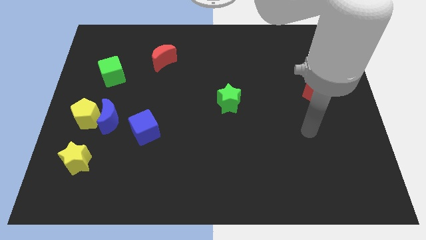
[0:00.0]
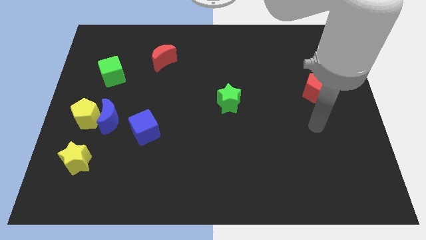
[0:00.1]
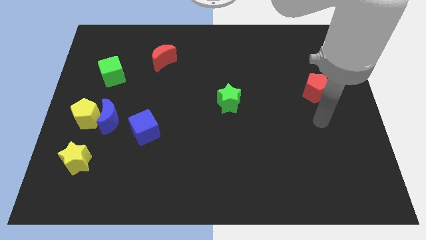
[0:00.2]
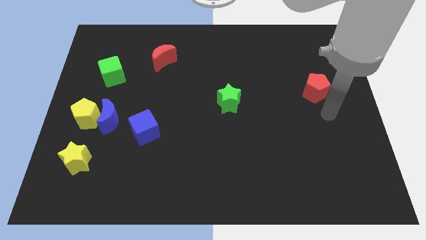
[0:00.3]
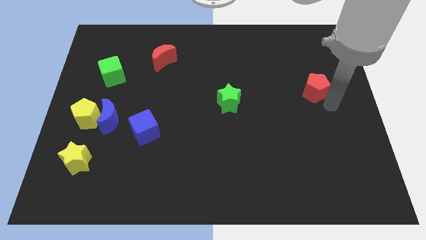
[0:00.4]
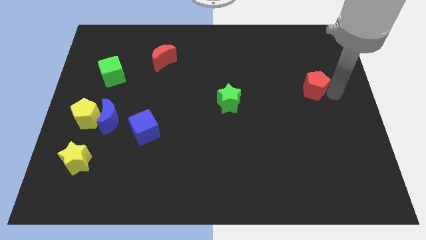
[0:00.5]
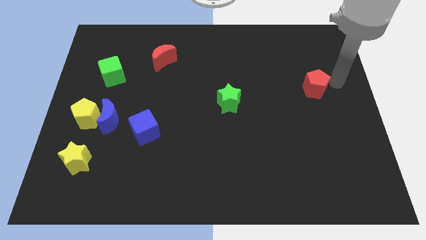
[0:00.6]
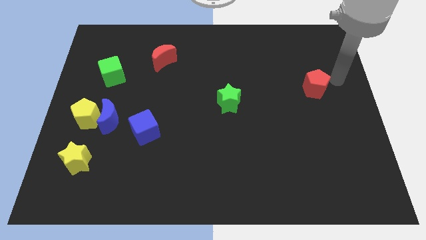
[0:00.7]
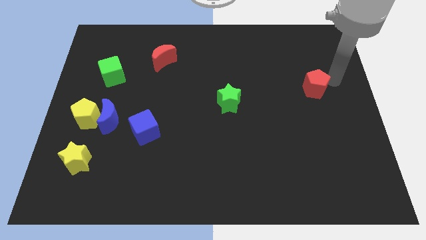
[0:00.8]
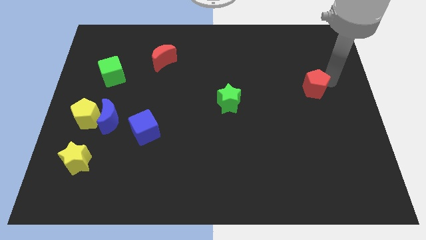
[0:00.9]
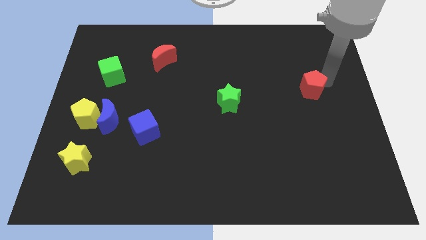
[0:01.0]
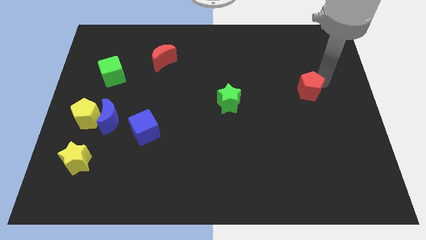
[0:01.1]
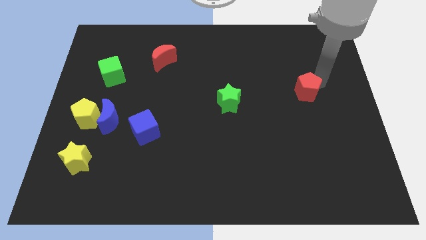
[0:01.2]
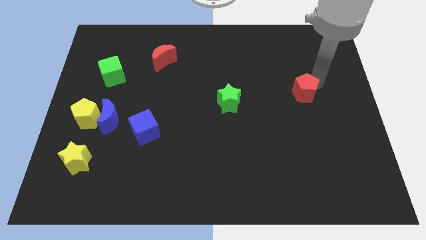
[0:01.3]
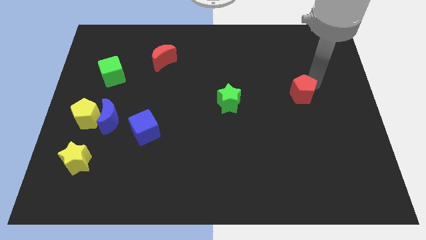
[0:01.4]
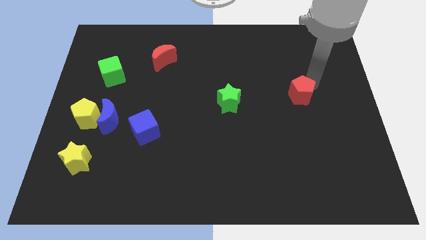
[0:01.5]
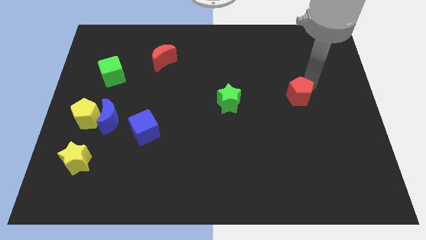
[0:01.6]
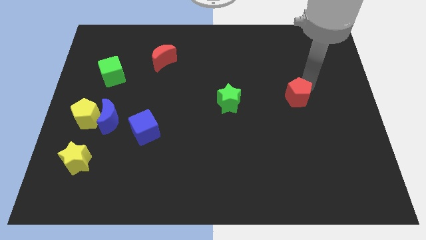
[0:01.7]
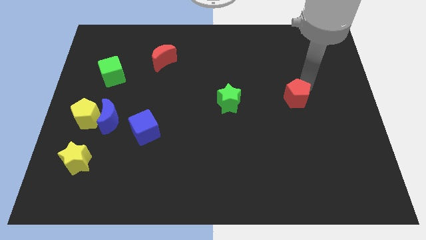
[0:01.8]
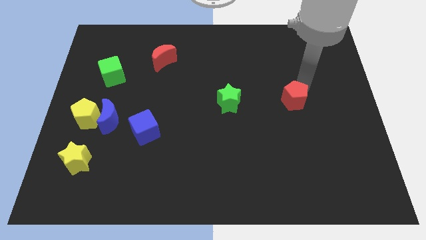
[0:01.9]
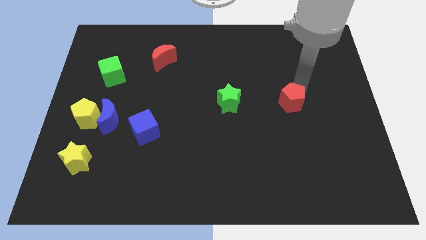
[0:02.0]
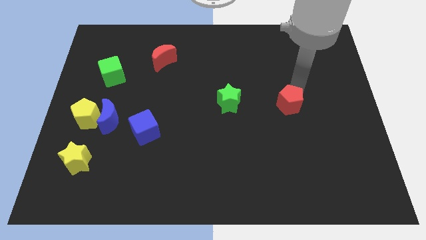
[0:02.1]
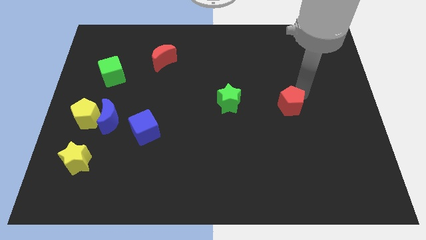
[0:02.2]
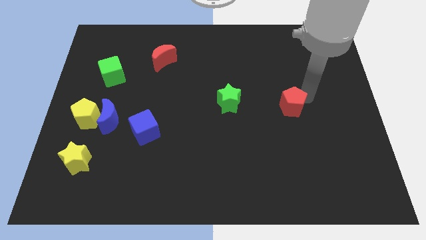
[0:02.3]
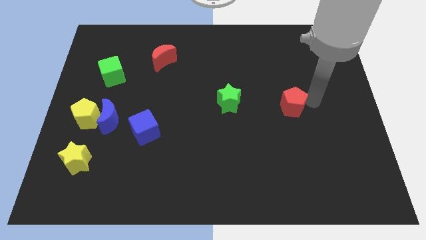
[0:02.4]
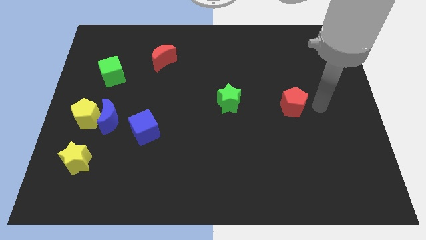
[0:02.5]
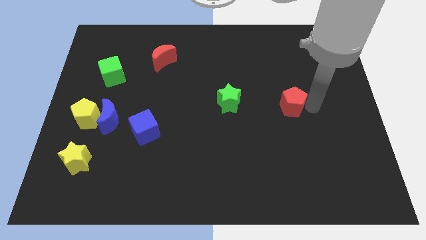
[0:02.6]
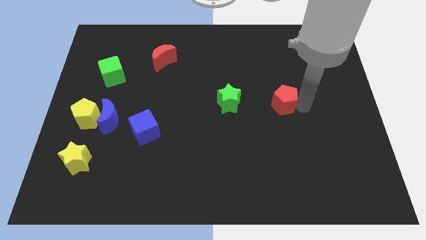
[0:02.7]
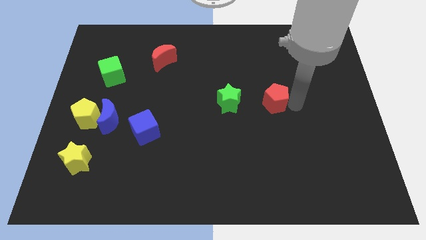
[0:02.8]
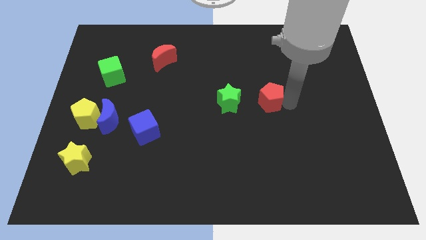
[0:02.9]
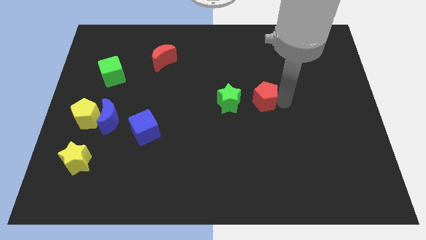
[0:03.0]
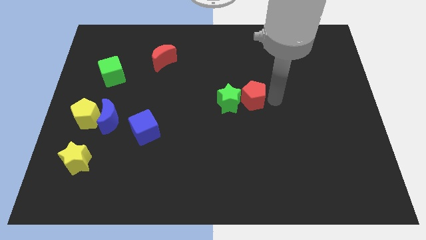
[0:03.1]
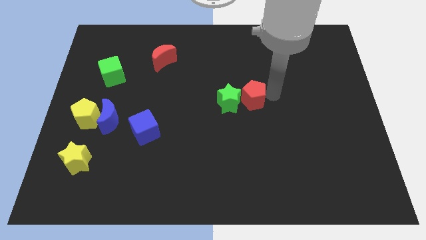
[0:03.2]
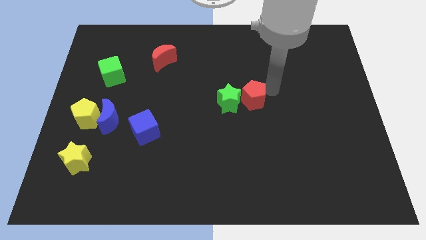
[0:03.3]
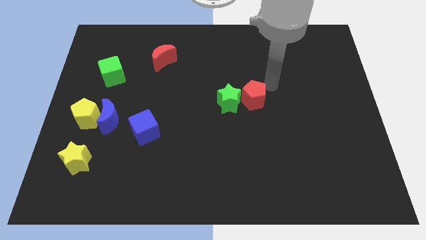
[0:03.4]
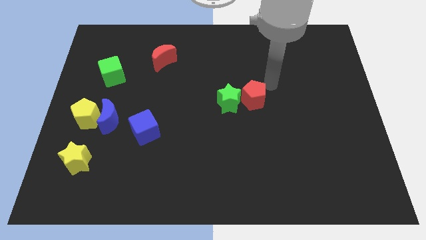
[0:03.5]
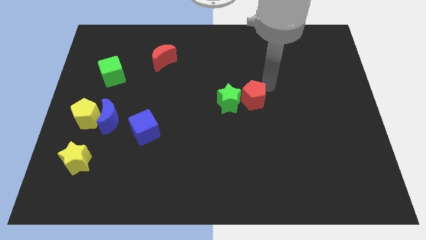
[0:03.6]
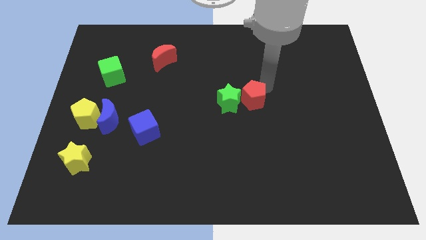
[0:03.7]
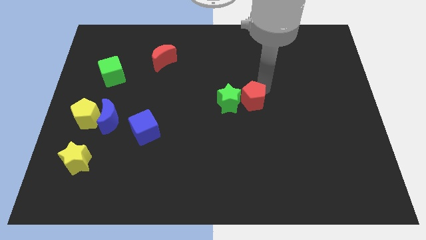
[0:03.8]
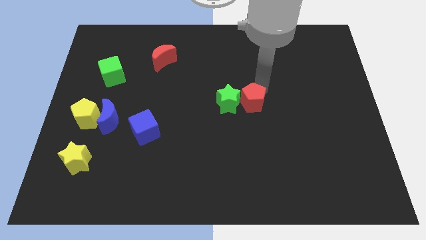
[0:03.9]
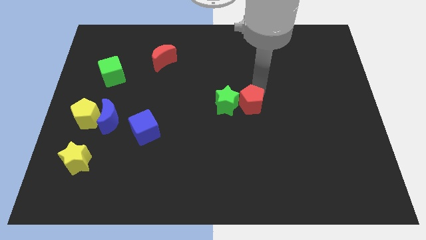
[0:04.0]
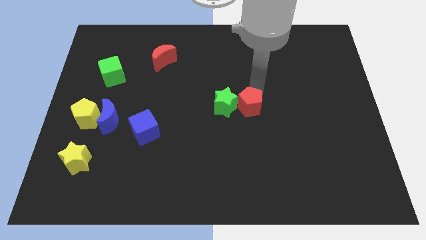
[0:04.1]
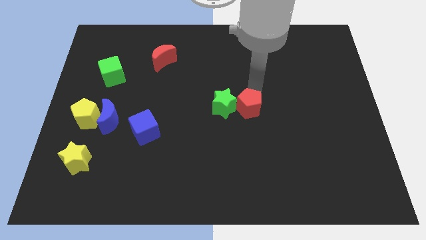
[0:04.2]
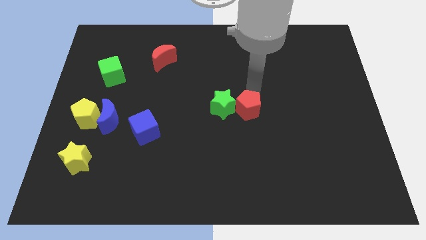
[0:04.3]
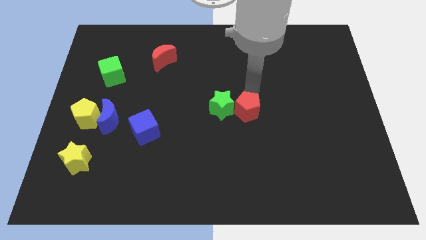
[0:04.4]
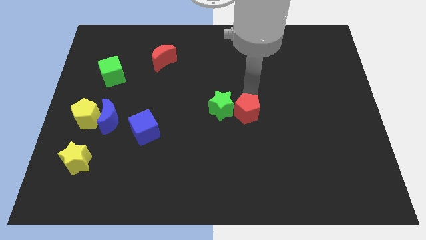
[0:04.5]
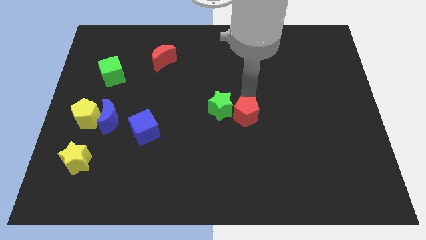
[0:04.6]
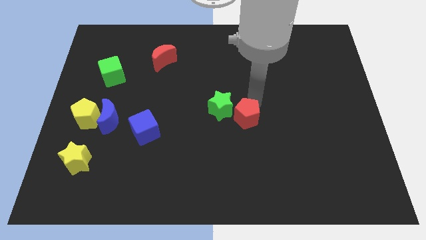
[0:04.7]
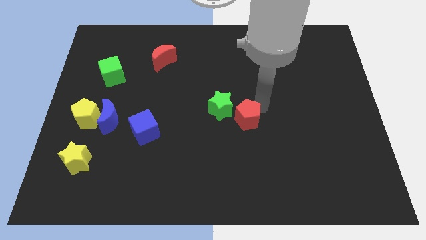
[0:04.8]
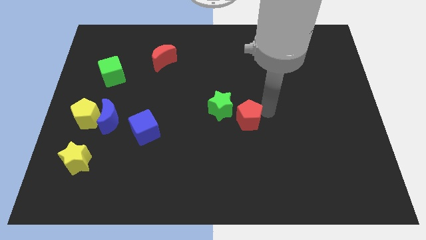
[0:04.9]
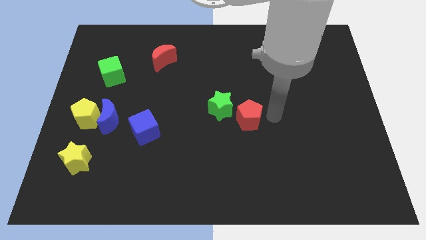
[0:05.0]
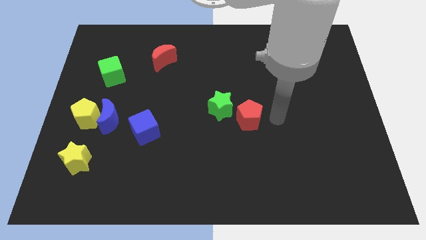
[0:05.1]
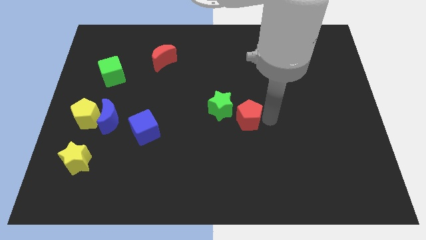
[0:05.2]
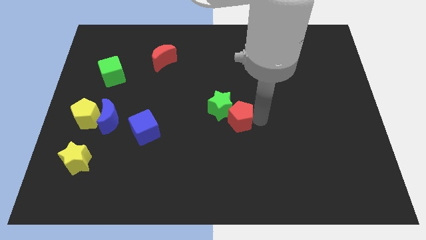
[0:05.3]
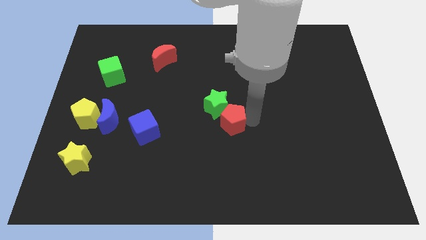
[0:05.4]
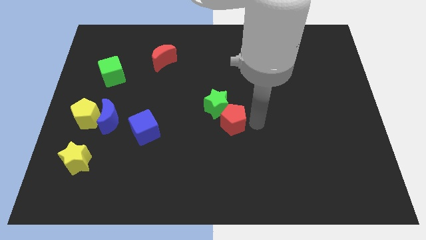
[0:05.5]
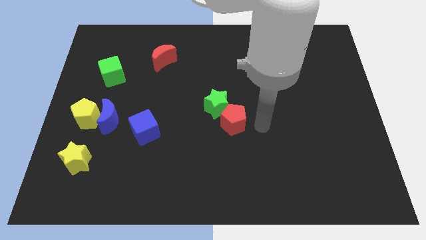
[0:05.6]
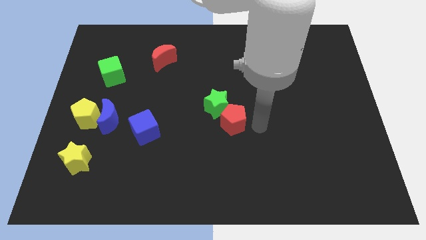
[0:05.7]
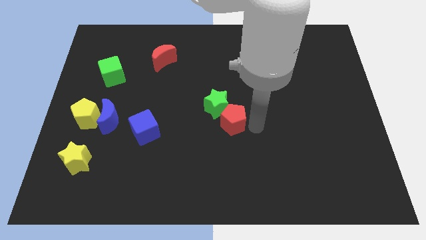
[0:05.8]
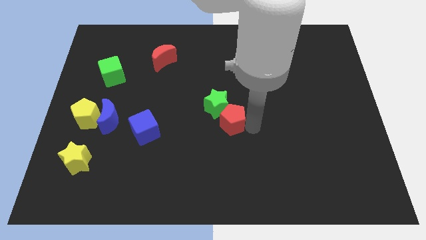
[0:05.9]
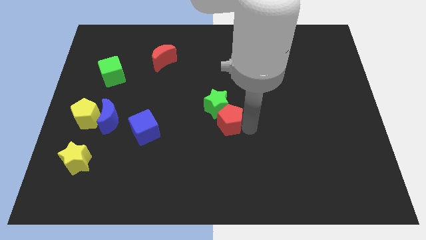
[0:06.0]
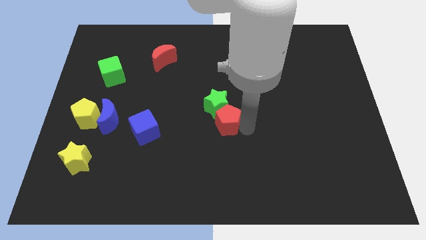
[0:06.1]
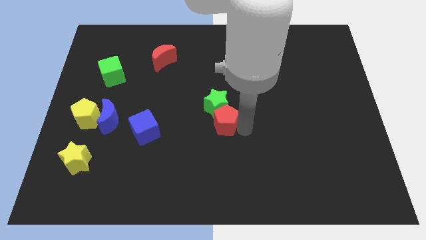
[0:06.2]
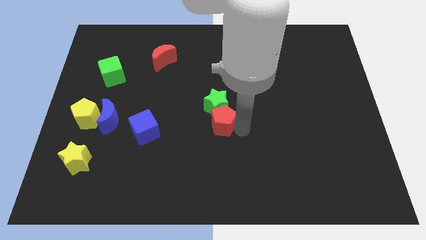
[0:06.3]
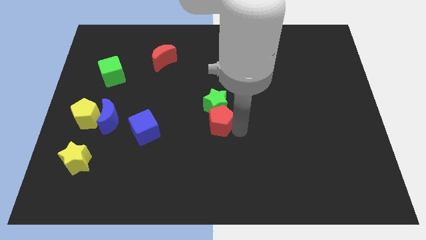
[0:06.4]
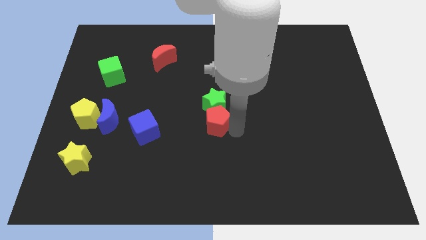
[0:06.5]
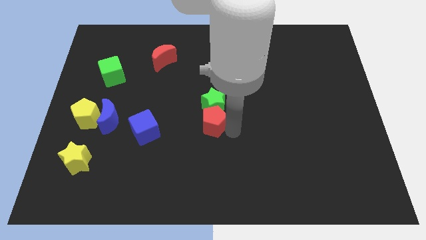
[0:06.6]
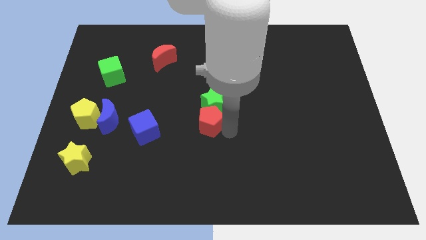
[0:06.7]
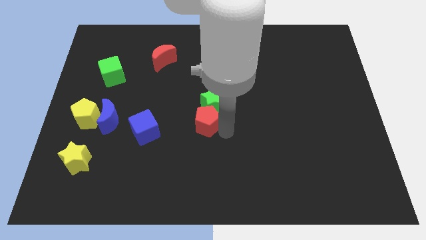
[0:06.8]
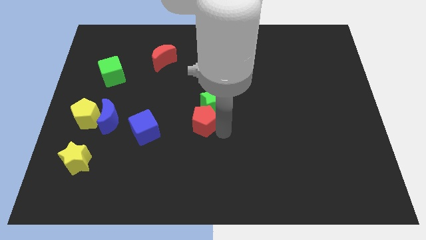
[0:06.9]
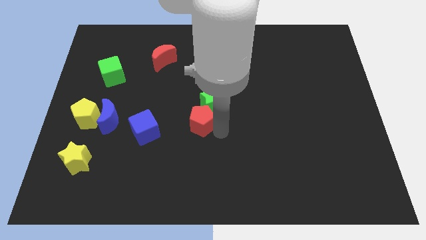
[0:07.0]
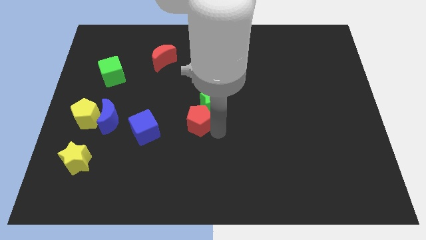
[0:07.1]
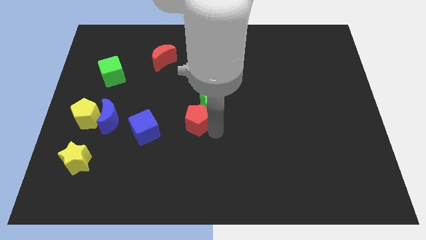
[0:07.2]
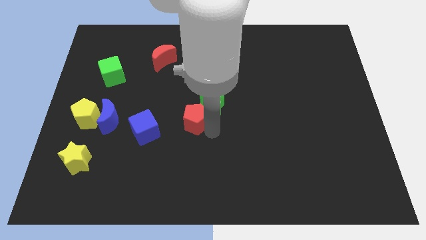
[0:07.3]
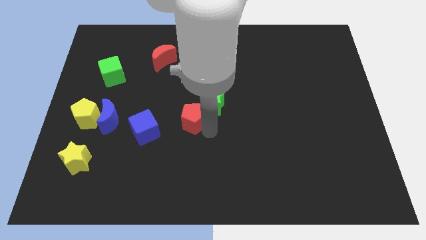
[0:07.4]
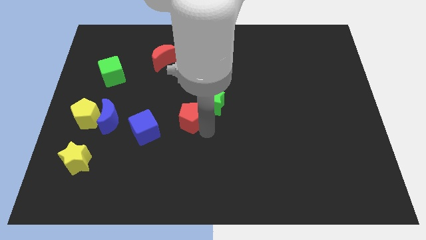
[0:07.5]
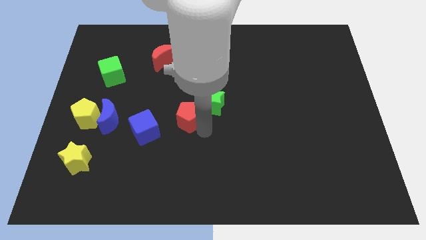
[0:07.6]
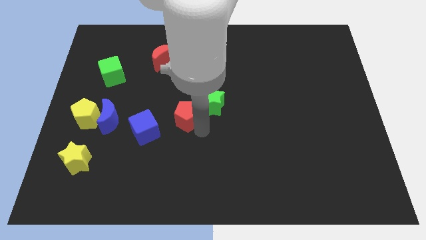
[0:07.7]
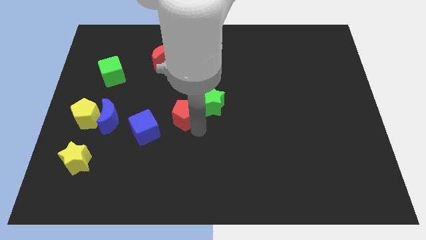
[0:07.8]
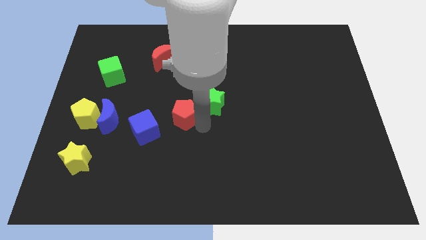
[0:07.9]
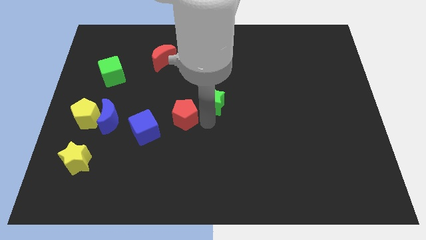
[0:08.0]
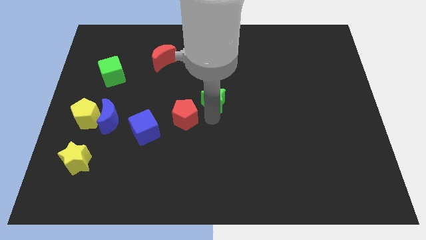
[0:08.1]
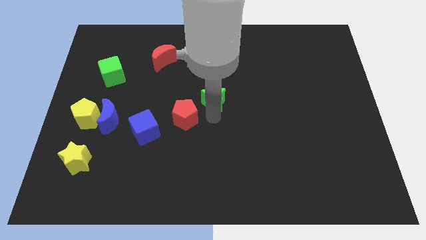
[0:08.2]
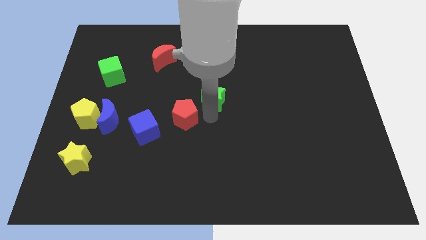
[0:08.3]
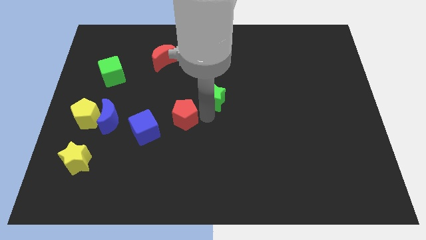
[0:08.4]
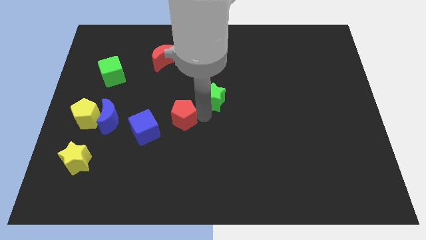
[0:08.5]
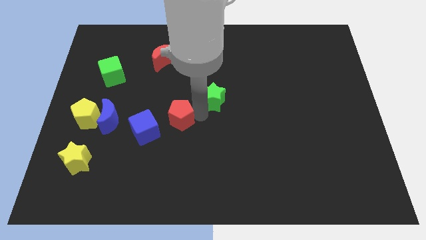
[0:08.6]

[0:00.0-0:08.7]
put the red pentagon to the right of the blue moon
